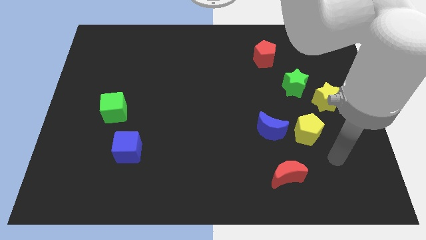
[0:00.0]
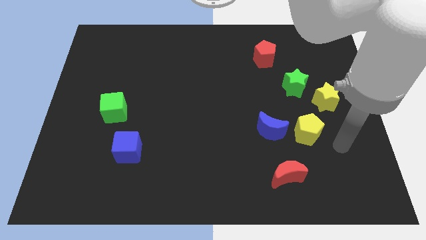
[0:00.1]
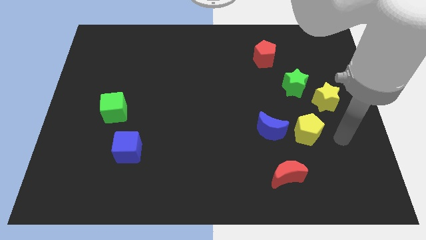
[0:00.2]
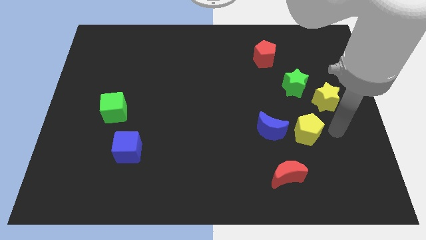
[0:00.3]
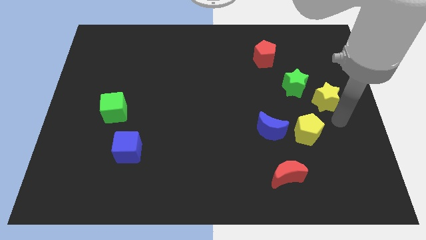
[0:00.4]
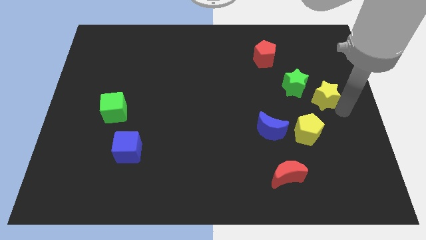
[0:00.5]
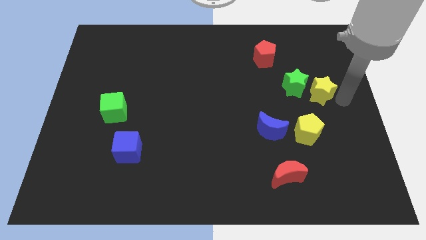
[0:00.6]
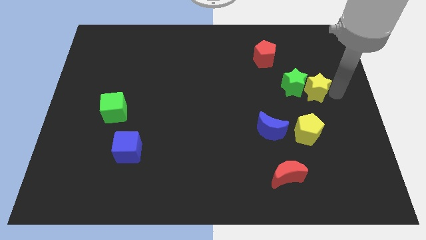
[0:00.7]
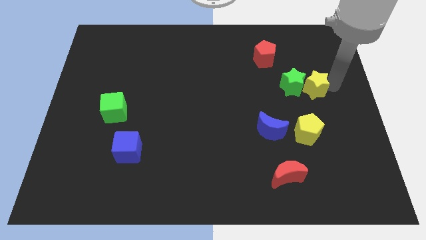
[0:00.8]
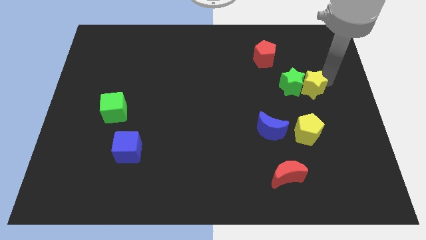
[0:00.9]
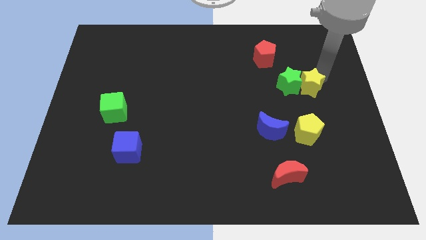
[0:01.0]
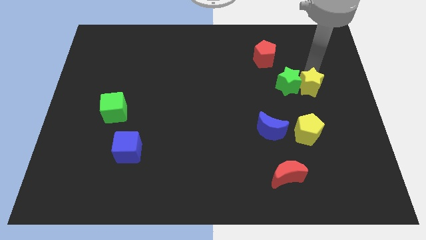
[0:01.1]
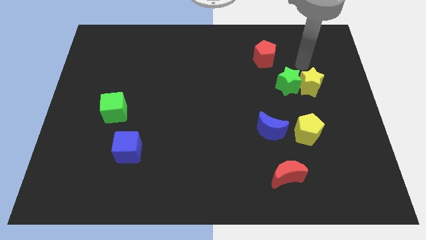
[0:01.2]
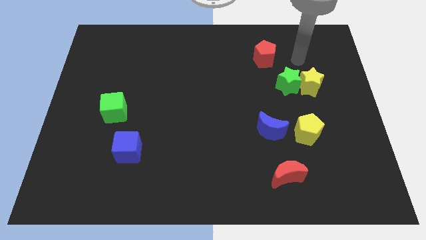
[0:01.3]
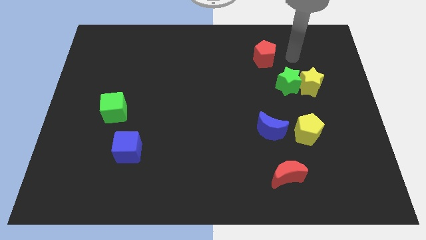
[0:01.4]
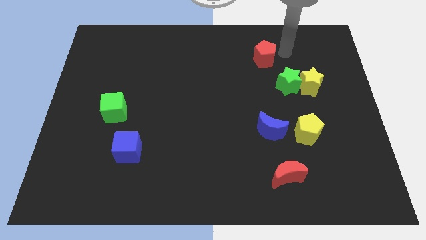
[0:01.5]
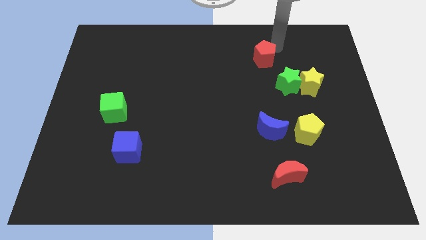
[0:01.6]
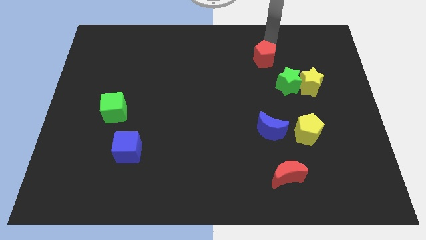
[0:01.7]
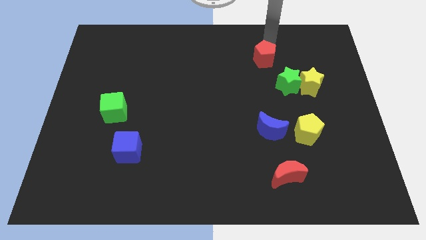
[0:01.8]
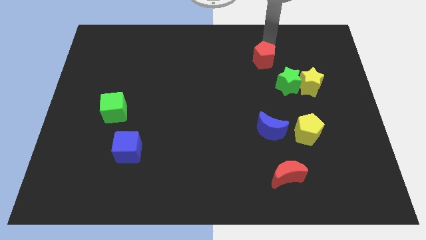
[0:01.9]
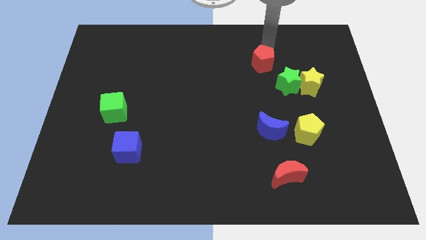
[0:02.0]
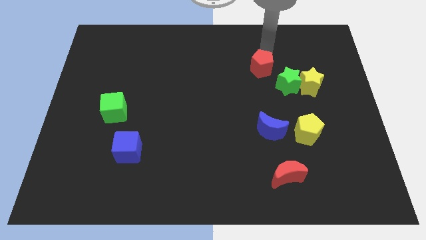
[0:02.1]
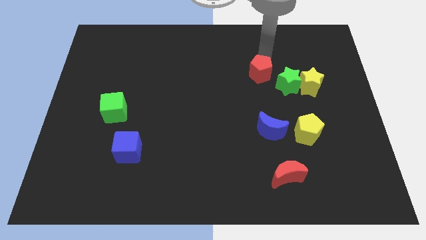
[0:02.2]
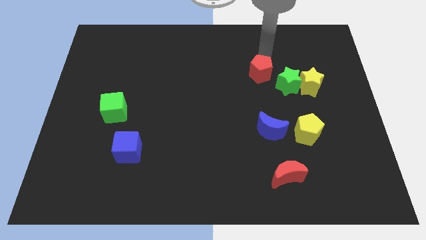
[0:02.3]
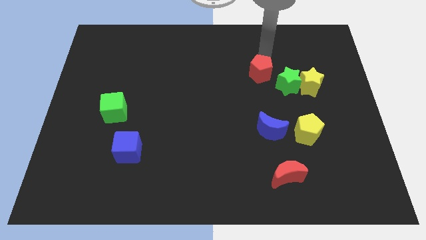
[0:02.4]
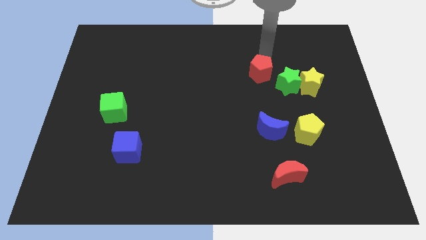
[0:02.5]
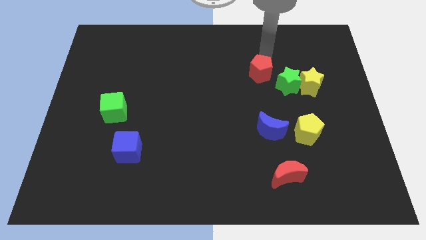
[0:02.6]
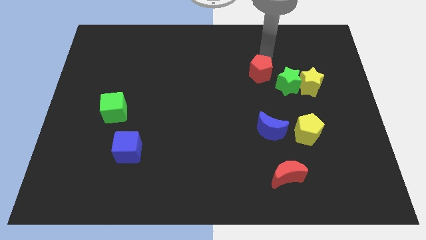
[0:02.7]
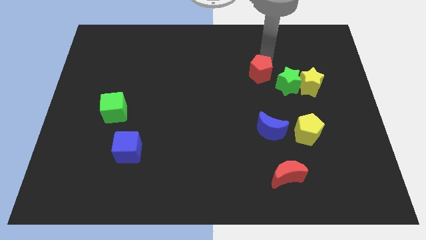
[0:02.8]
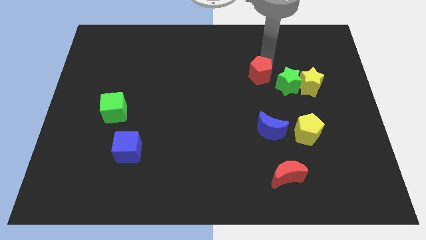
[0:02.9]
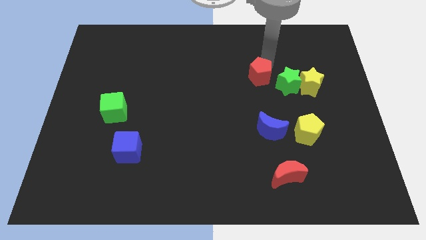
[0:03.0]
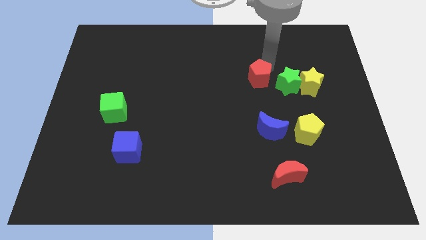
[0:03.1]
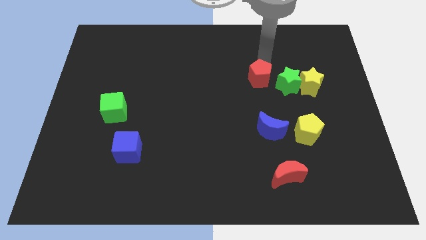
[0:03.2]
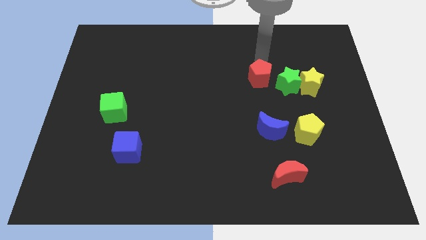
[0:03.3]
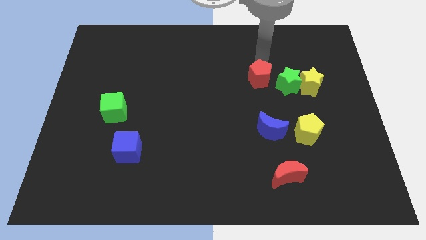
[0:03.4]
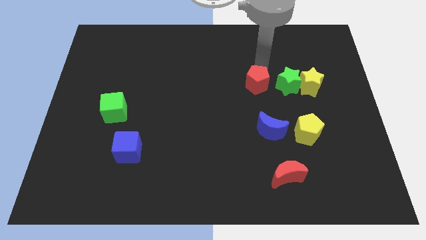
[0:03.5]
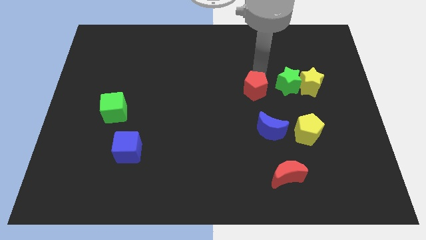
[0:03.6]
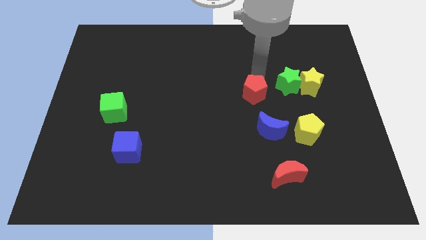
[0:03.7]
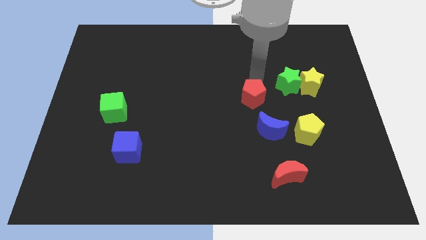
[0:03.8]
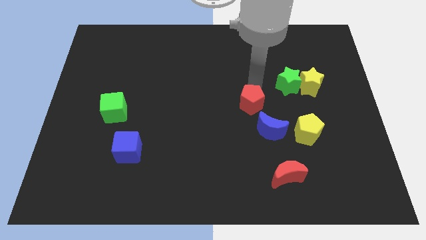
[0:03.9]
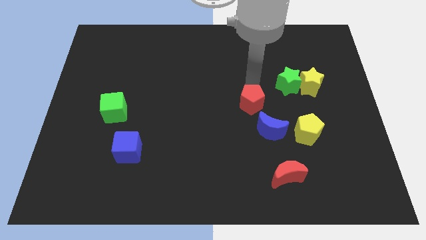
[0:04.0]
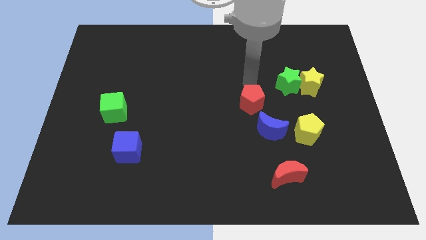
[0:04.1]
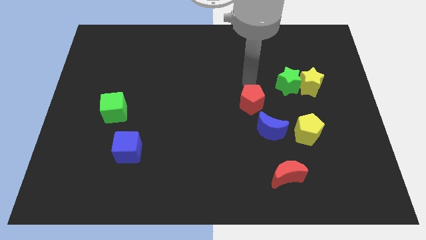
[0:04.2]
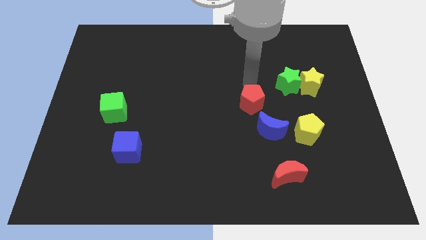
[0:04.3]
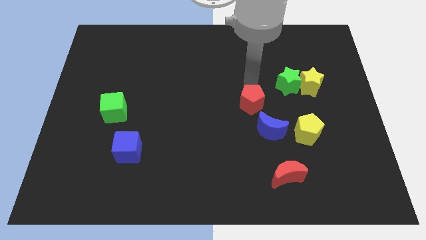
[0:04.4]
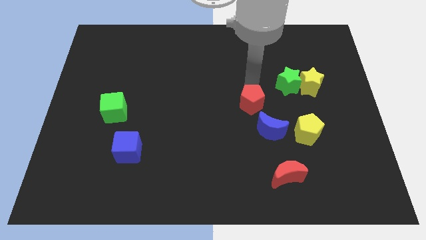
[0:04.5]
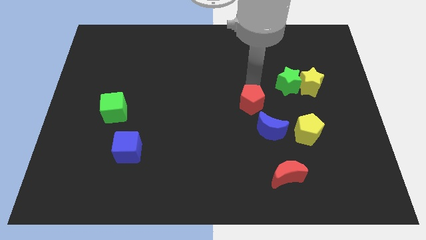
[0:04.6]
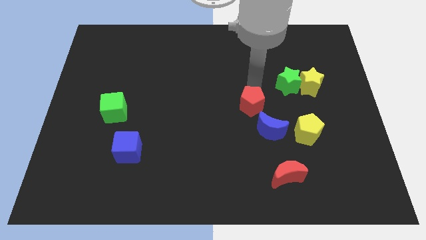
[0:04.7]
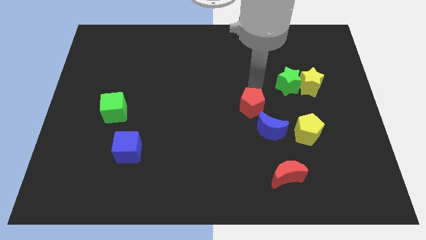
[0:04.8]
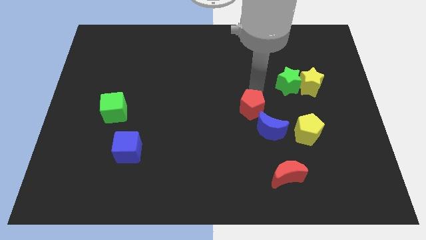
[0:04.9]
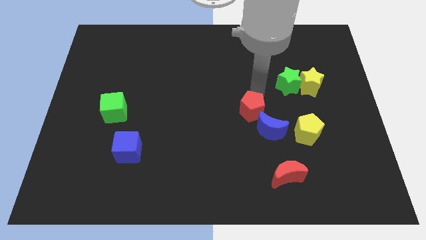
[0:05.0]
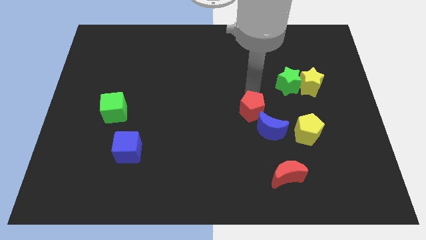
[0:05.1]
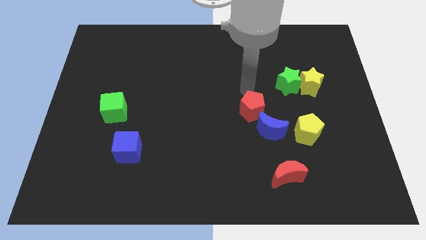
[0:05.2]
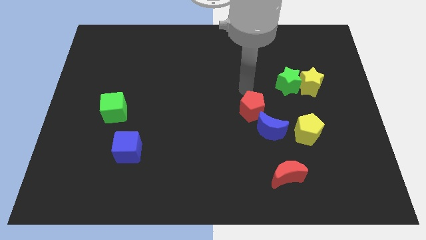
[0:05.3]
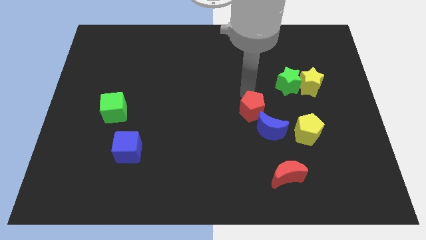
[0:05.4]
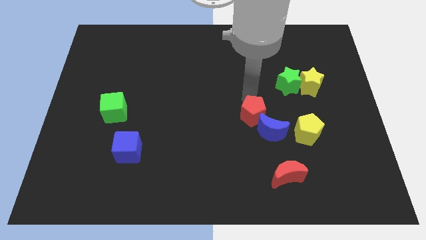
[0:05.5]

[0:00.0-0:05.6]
put the red pentagon to the left of the yellow pentagon

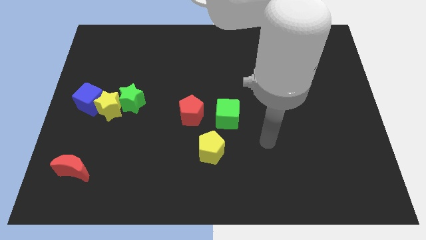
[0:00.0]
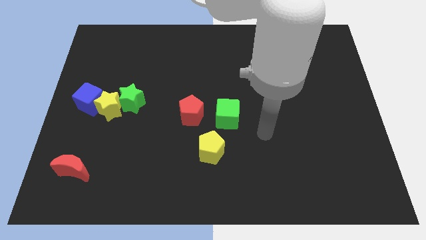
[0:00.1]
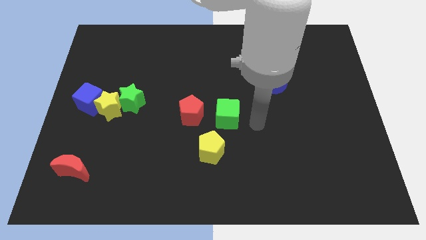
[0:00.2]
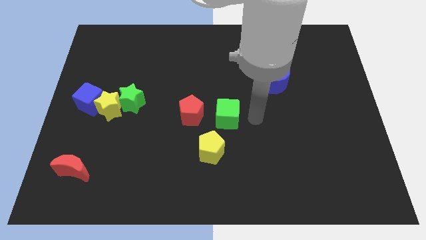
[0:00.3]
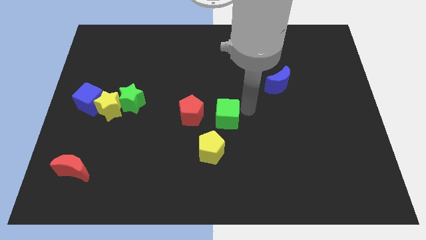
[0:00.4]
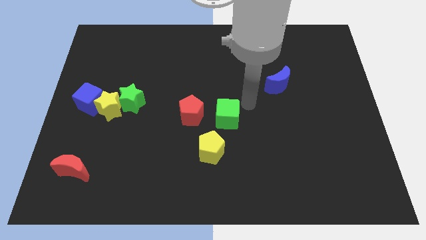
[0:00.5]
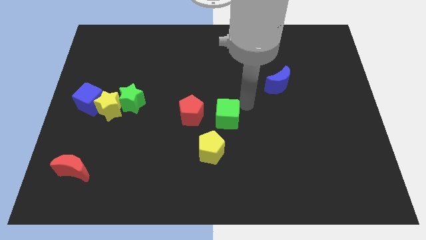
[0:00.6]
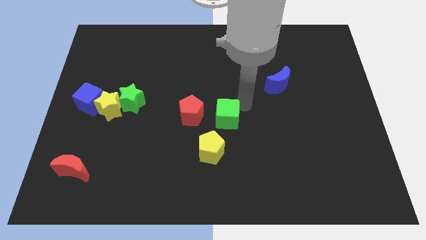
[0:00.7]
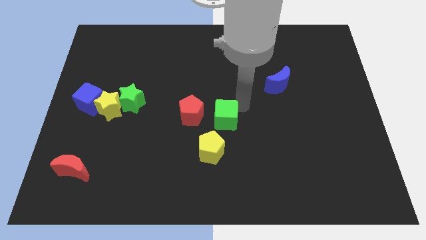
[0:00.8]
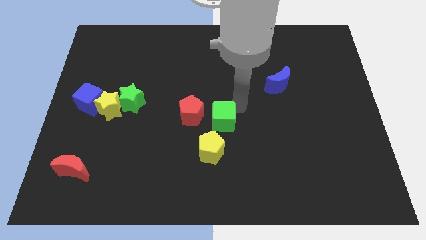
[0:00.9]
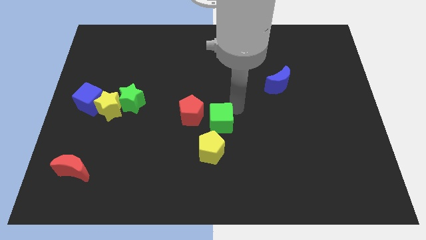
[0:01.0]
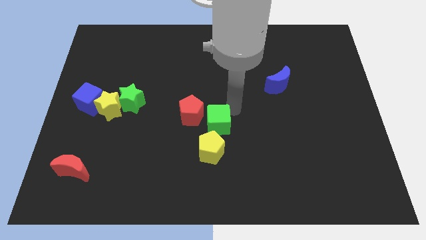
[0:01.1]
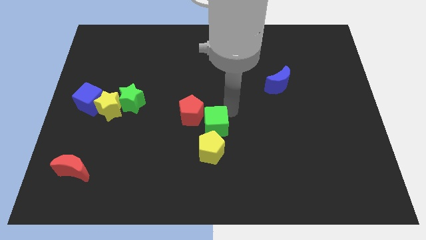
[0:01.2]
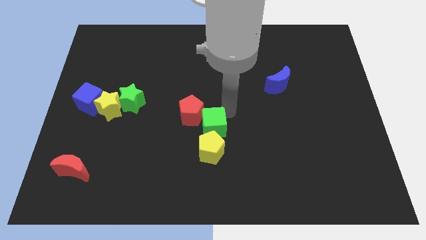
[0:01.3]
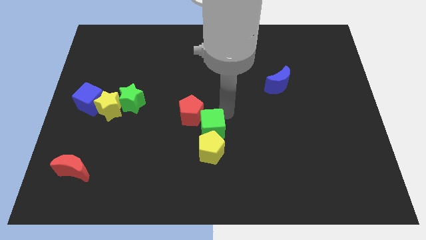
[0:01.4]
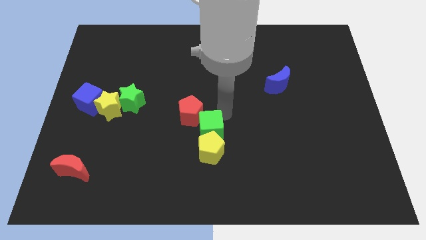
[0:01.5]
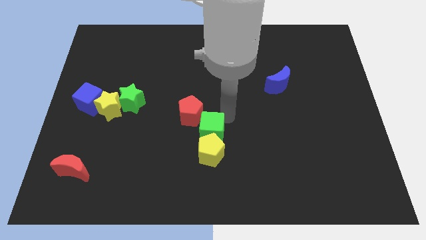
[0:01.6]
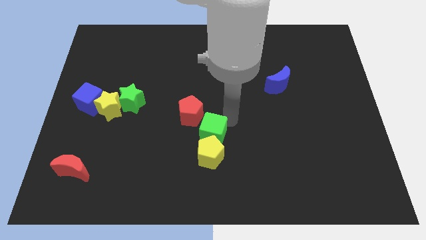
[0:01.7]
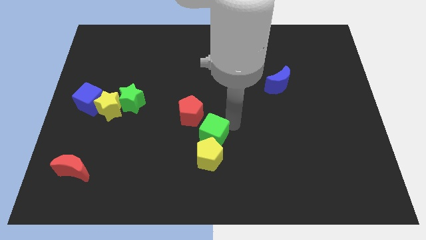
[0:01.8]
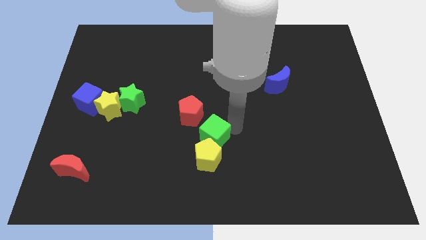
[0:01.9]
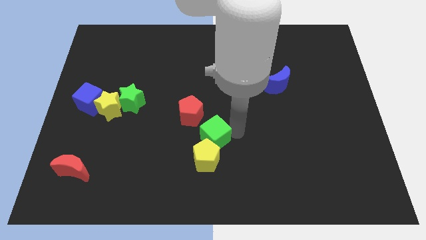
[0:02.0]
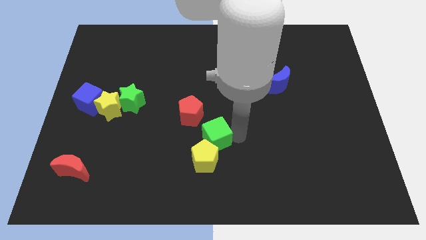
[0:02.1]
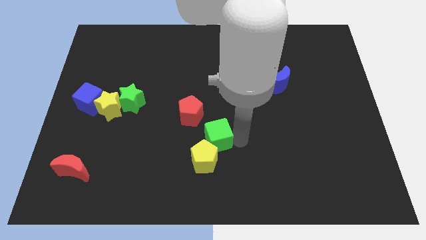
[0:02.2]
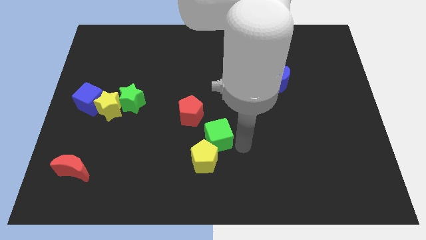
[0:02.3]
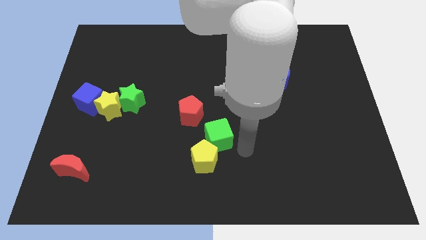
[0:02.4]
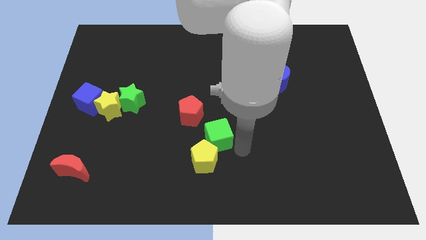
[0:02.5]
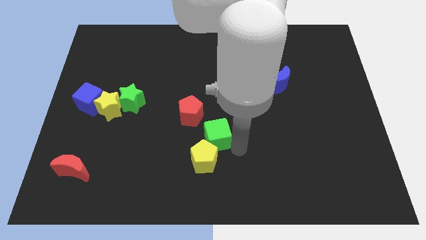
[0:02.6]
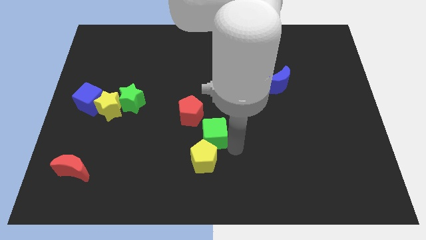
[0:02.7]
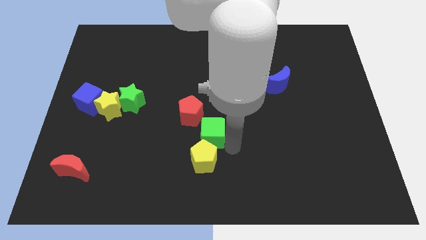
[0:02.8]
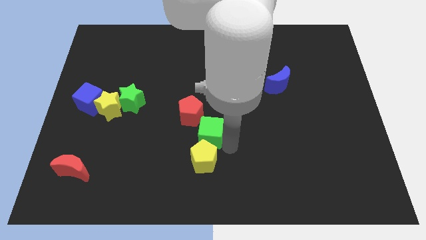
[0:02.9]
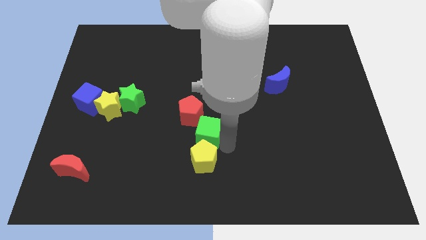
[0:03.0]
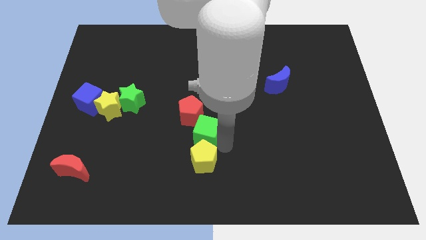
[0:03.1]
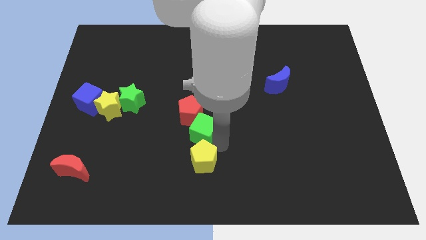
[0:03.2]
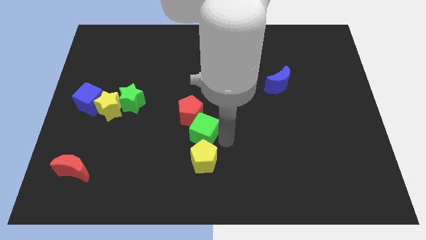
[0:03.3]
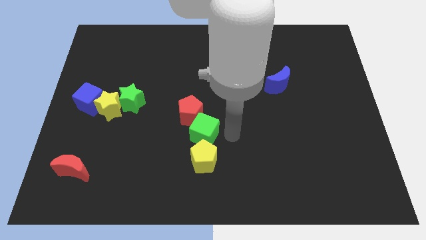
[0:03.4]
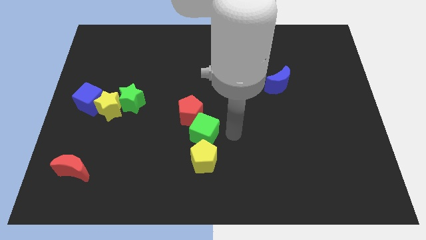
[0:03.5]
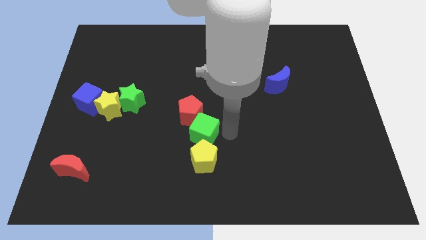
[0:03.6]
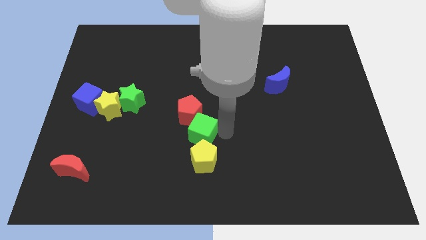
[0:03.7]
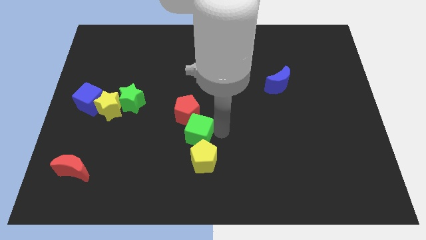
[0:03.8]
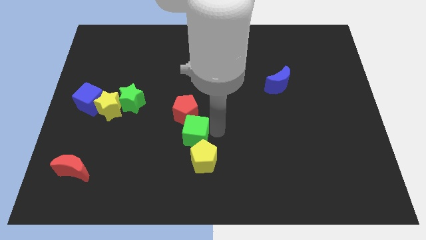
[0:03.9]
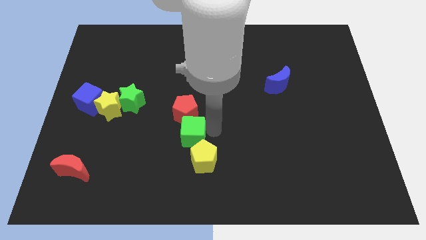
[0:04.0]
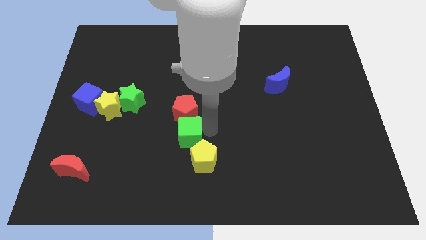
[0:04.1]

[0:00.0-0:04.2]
put the green cube to the bottom left of the red pentagon
